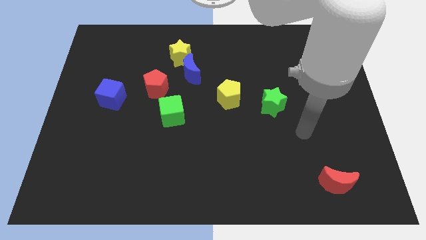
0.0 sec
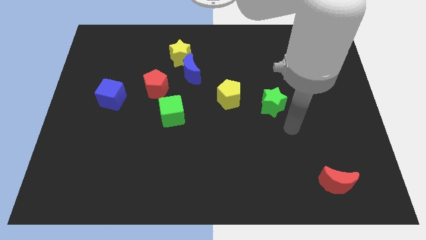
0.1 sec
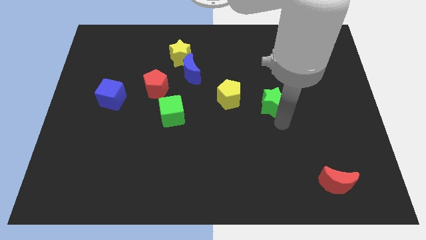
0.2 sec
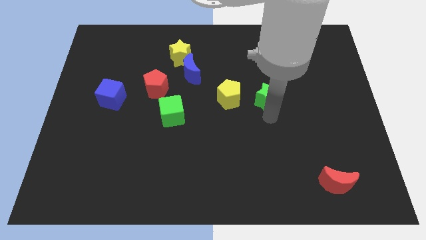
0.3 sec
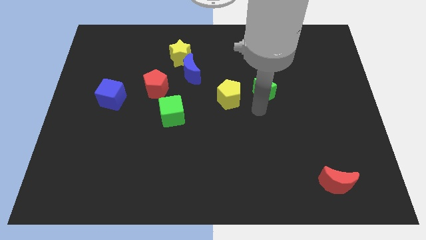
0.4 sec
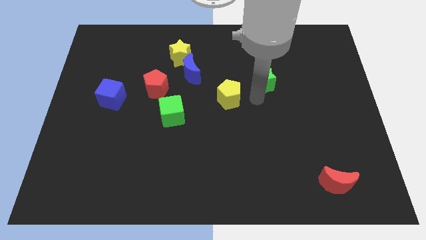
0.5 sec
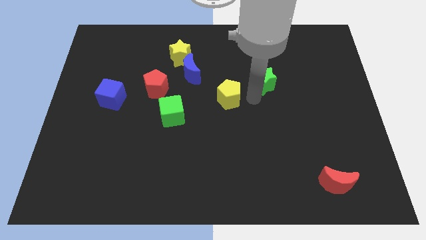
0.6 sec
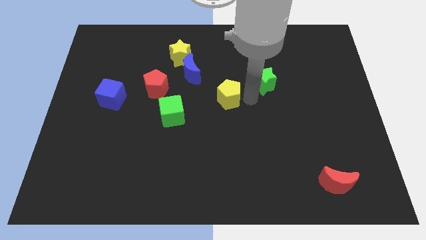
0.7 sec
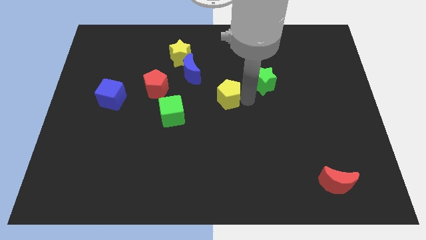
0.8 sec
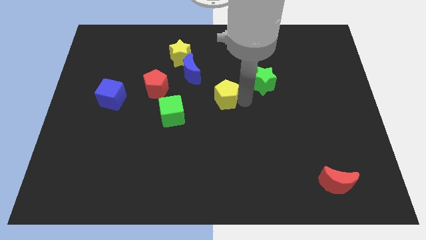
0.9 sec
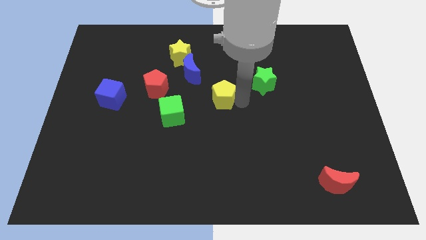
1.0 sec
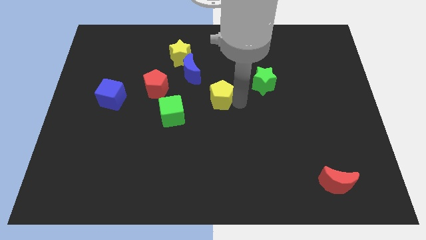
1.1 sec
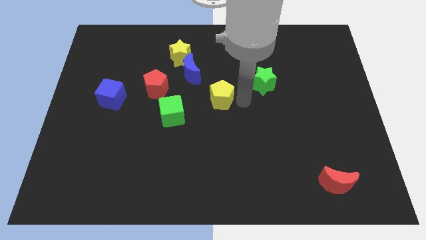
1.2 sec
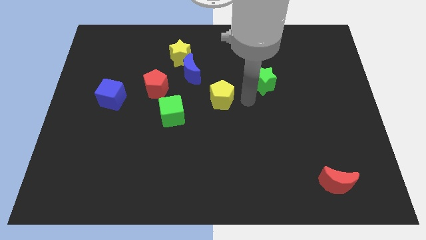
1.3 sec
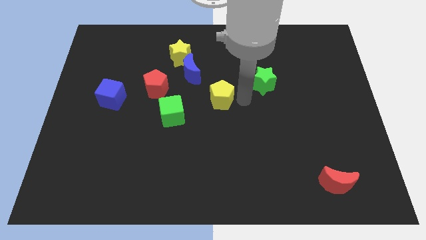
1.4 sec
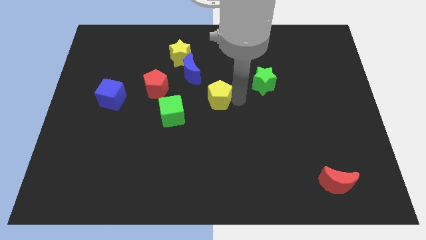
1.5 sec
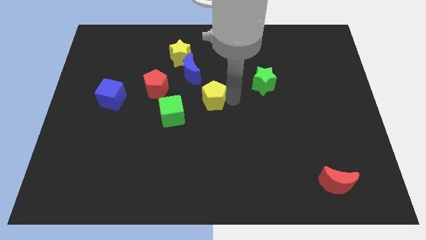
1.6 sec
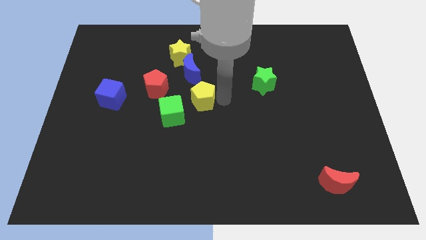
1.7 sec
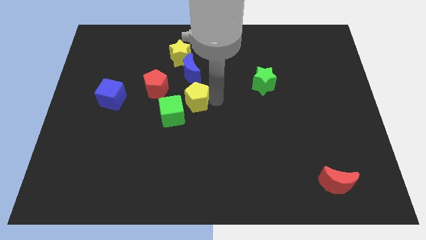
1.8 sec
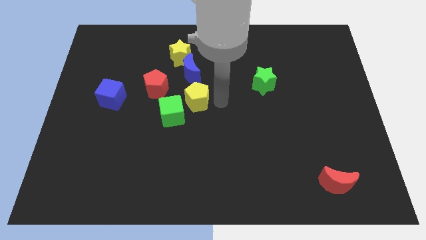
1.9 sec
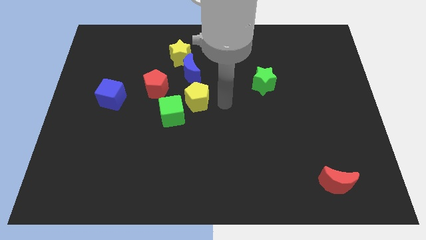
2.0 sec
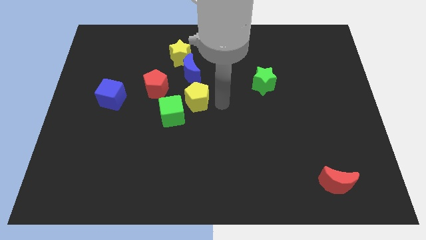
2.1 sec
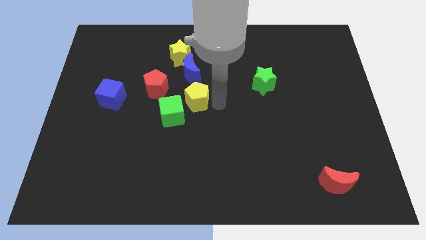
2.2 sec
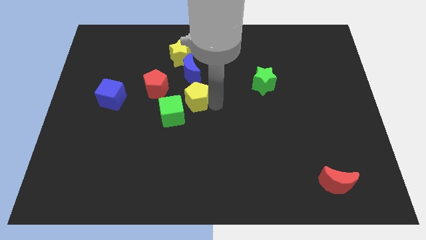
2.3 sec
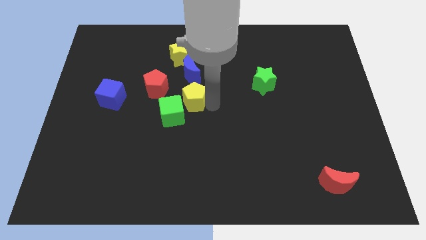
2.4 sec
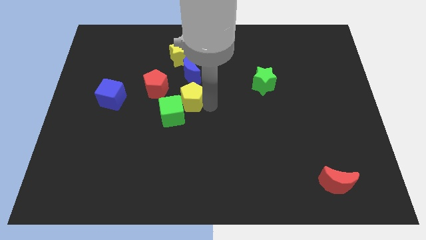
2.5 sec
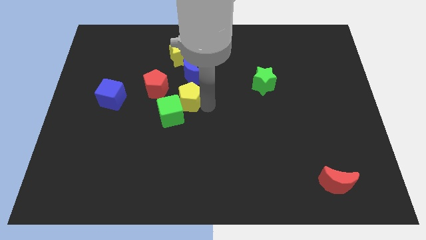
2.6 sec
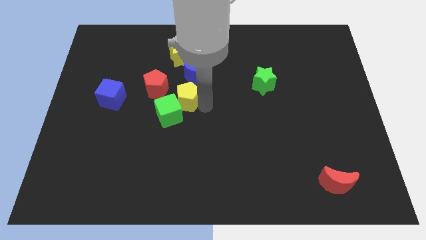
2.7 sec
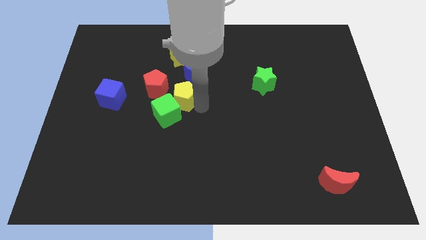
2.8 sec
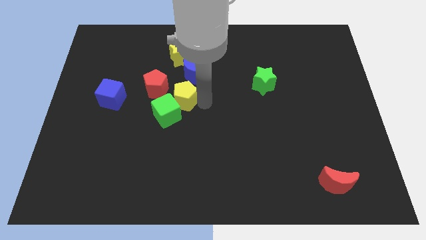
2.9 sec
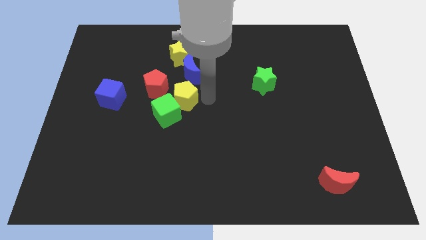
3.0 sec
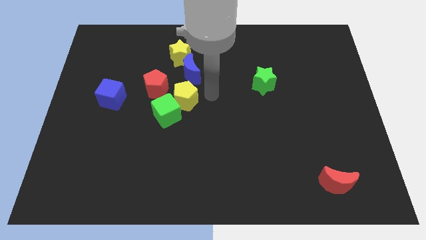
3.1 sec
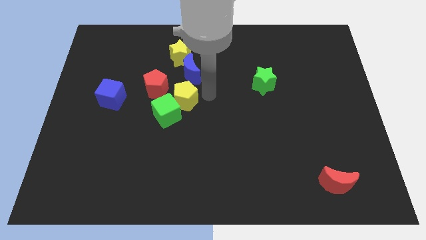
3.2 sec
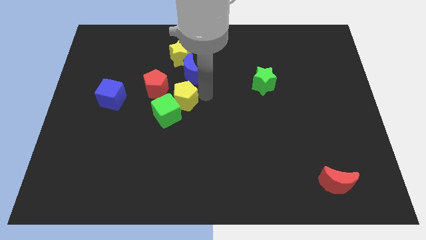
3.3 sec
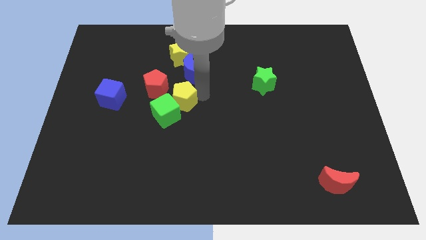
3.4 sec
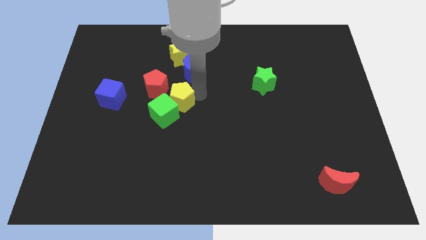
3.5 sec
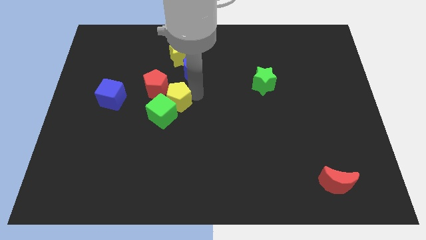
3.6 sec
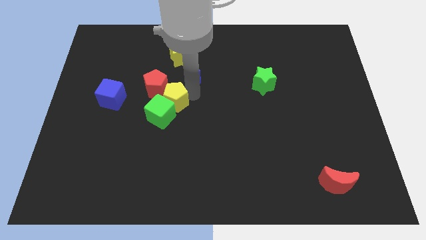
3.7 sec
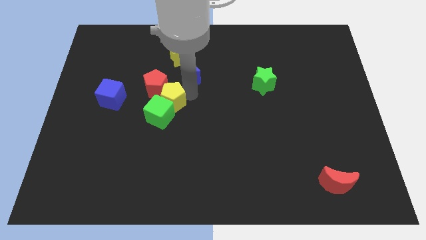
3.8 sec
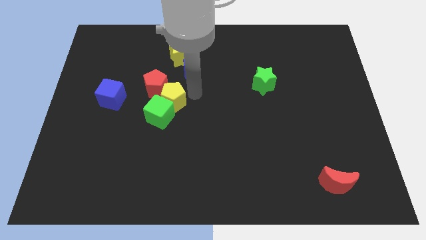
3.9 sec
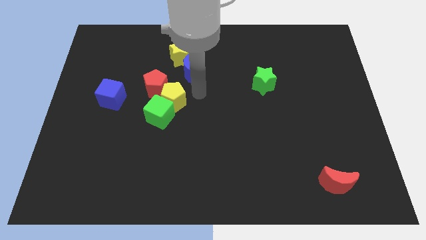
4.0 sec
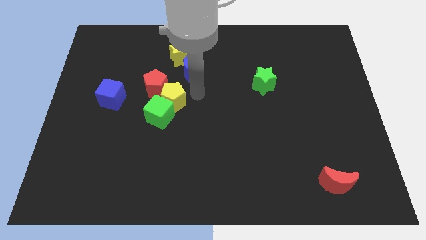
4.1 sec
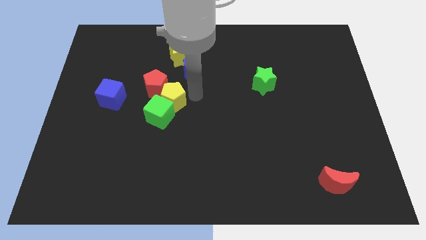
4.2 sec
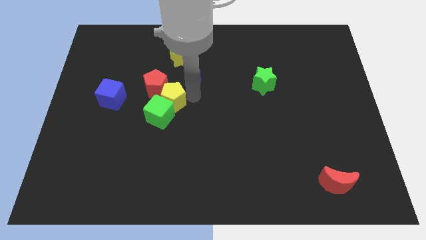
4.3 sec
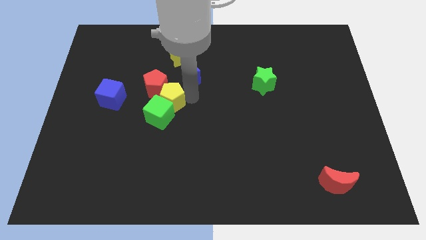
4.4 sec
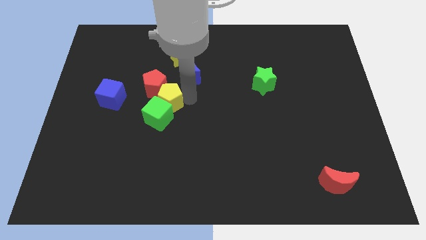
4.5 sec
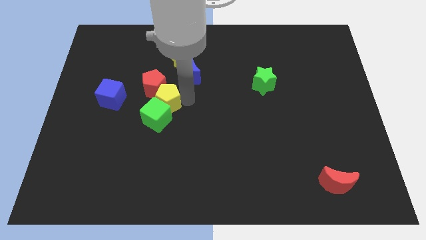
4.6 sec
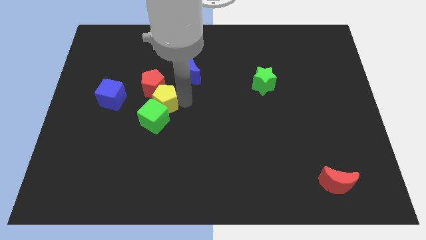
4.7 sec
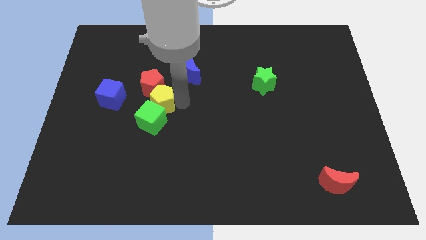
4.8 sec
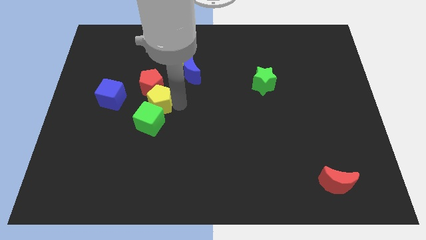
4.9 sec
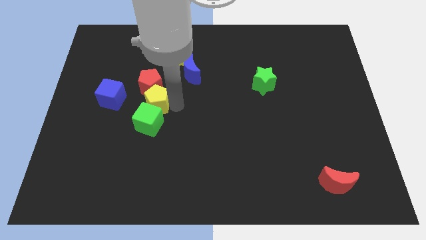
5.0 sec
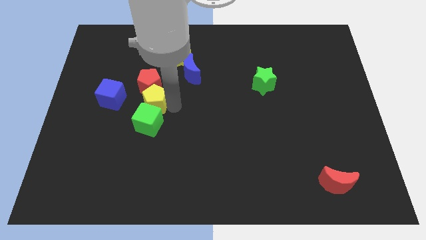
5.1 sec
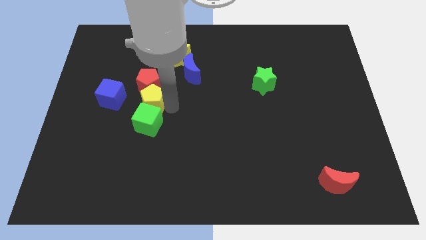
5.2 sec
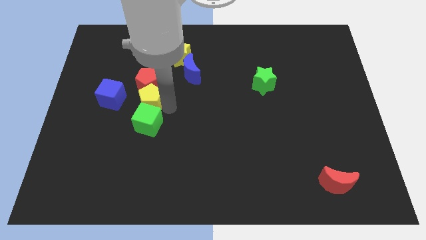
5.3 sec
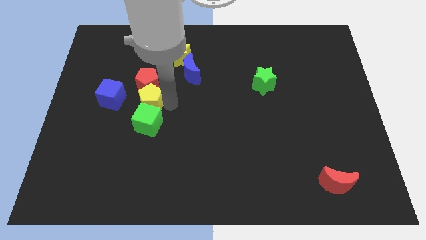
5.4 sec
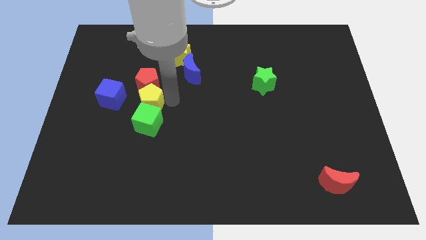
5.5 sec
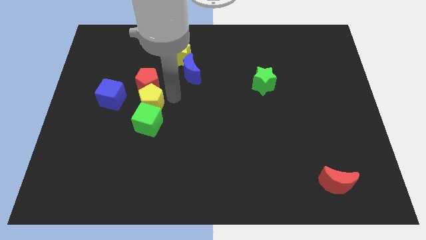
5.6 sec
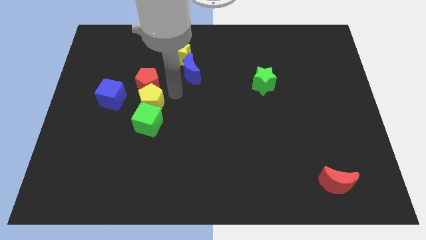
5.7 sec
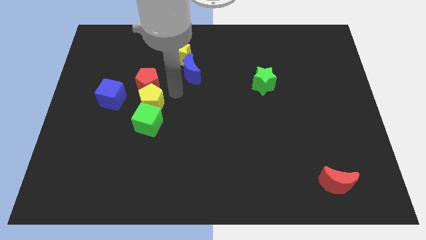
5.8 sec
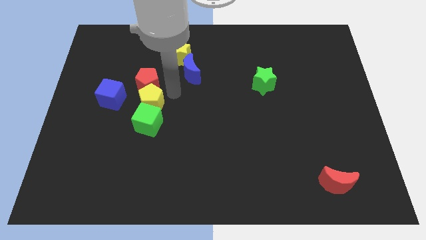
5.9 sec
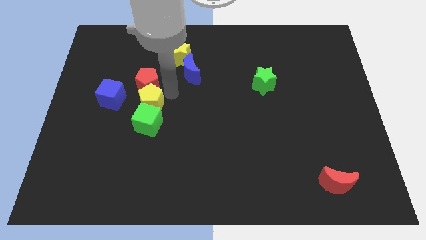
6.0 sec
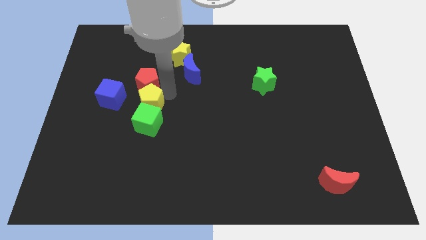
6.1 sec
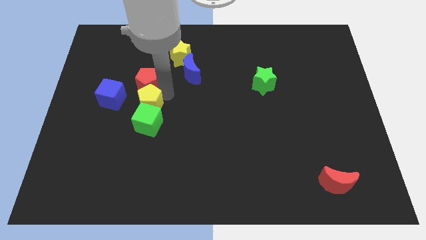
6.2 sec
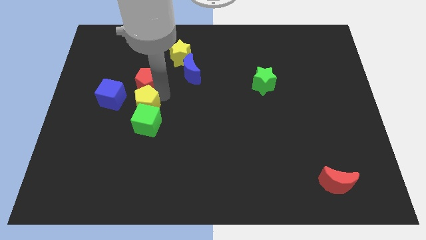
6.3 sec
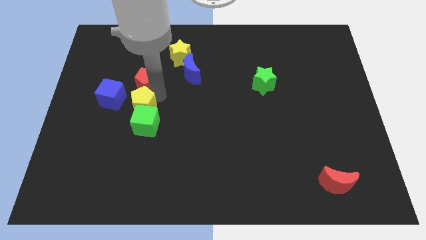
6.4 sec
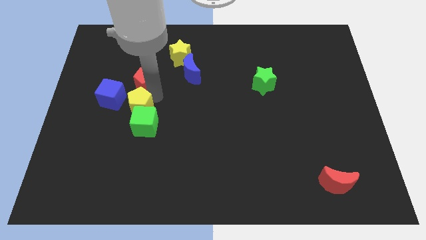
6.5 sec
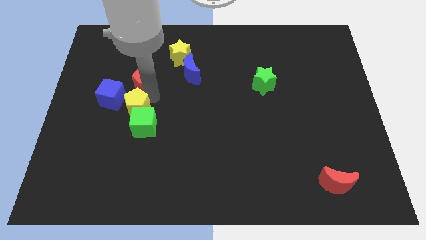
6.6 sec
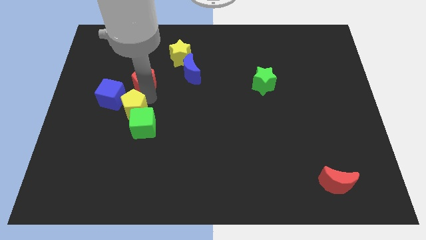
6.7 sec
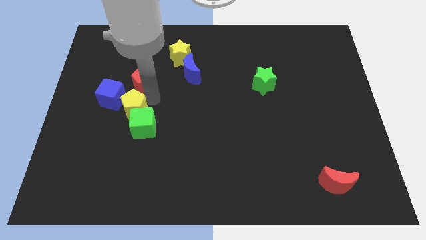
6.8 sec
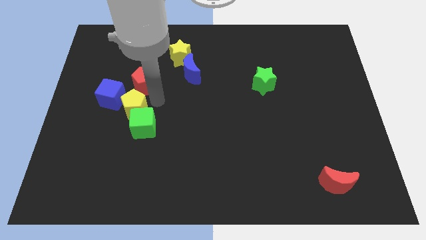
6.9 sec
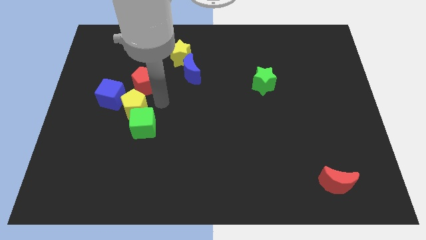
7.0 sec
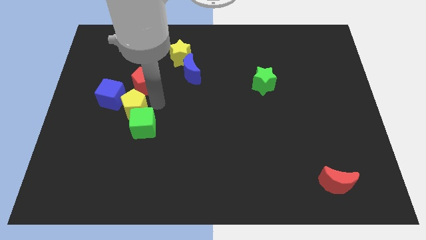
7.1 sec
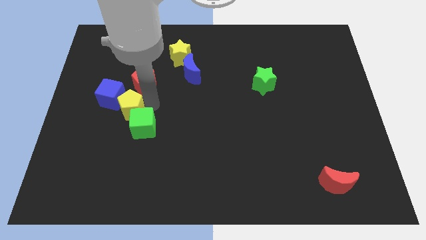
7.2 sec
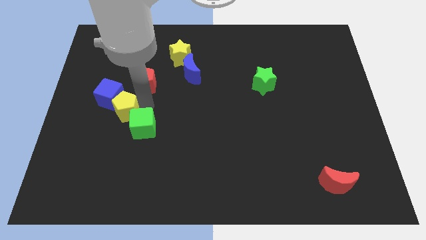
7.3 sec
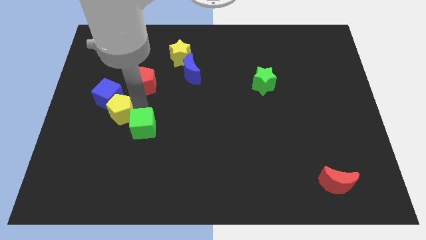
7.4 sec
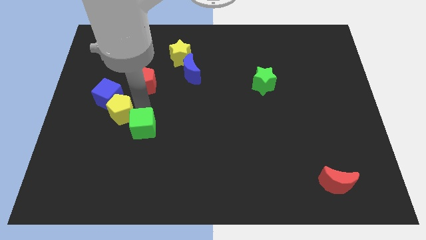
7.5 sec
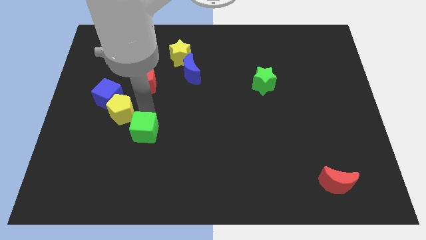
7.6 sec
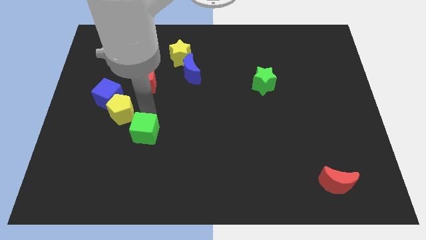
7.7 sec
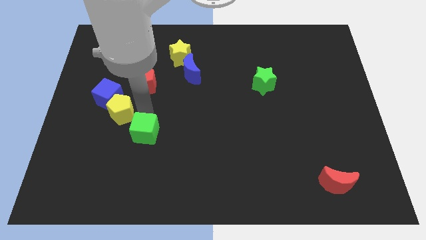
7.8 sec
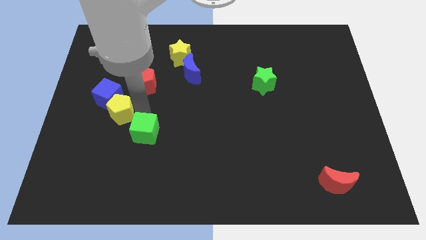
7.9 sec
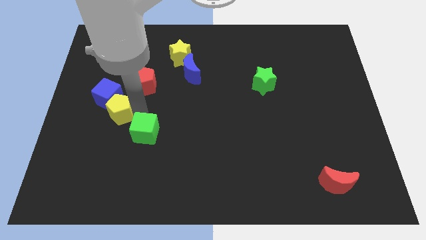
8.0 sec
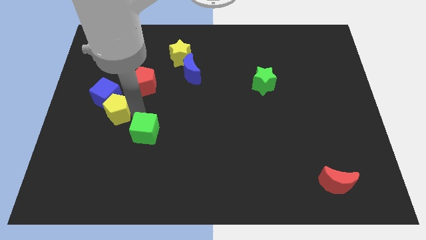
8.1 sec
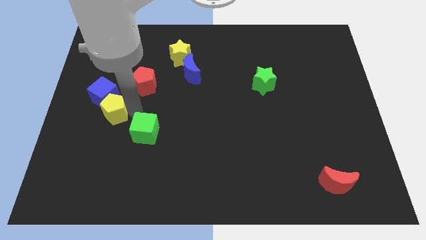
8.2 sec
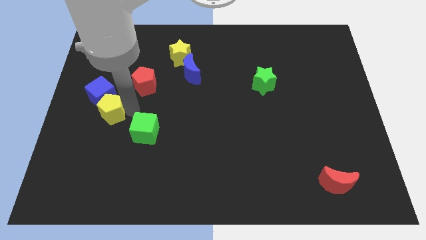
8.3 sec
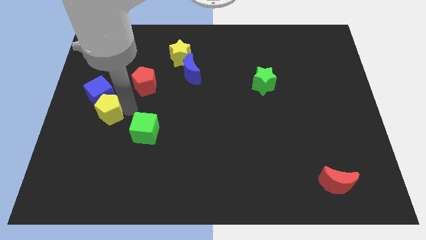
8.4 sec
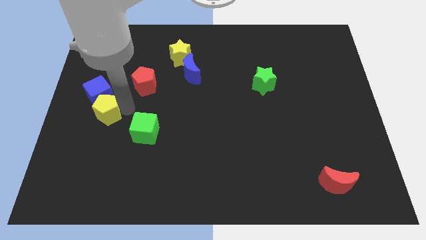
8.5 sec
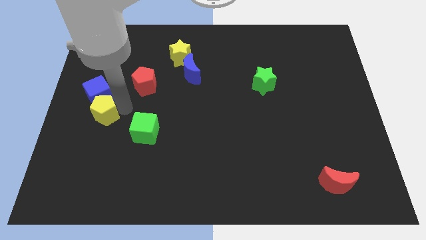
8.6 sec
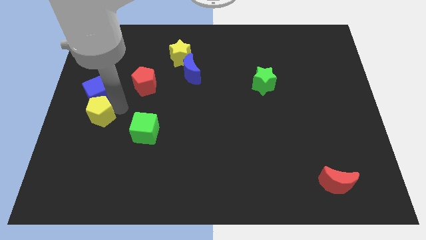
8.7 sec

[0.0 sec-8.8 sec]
slide the yellow pentagon to the left side
